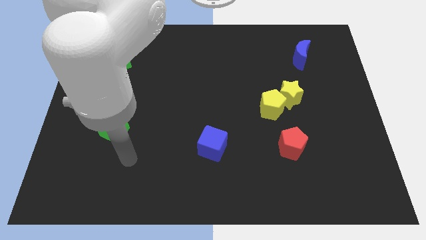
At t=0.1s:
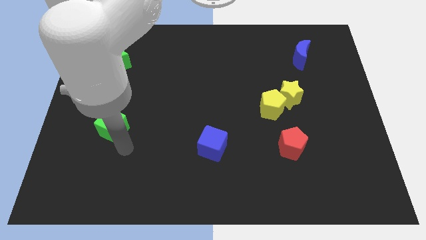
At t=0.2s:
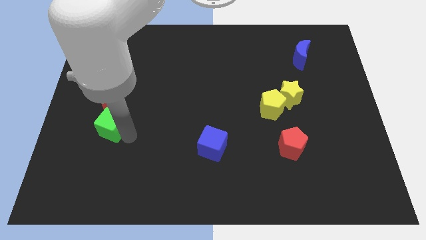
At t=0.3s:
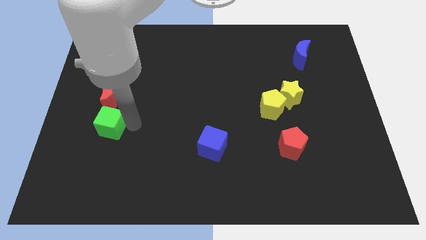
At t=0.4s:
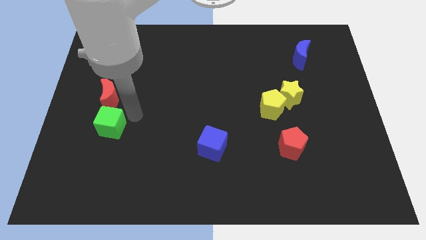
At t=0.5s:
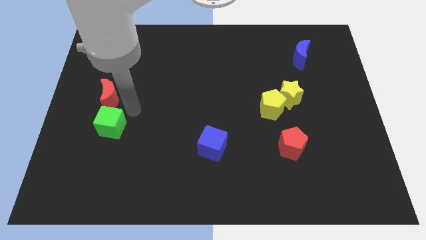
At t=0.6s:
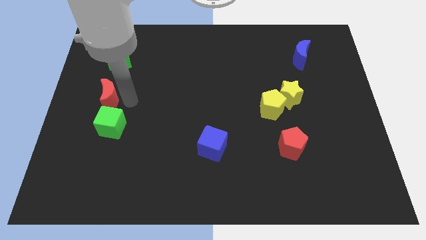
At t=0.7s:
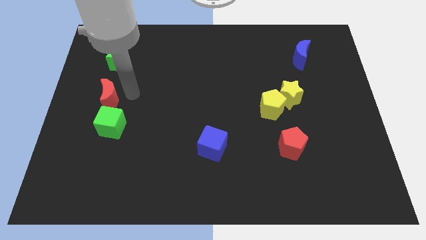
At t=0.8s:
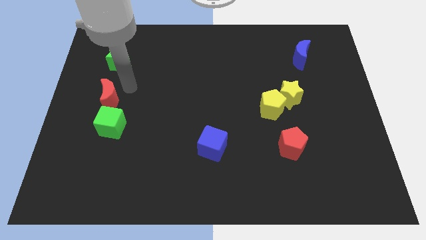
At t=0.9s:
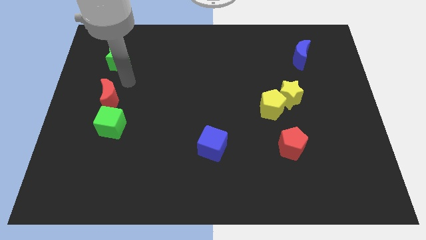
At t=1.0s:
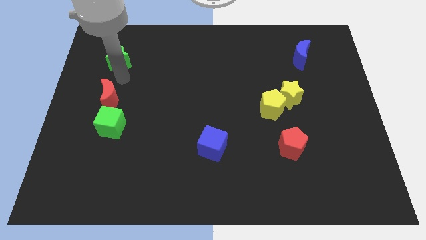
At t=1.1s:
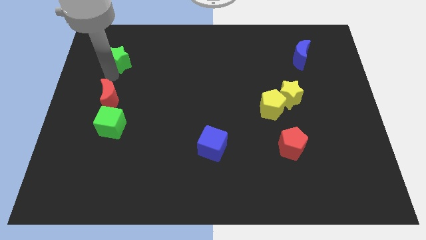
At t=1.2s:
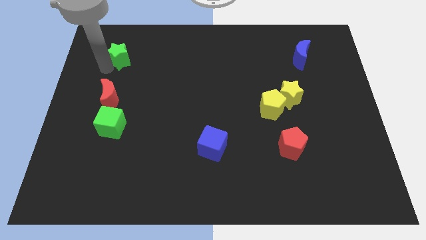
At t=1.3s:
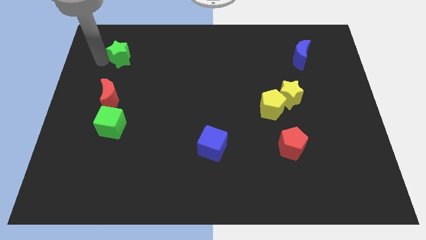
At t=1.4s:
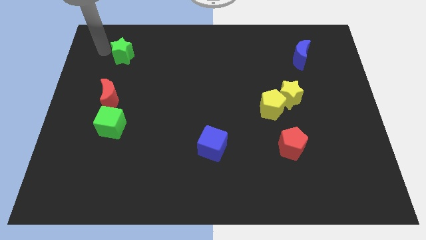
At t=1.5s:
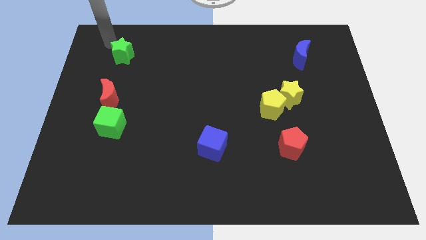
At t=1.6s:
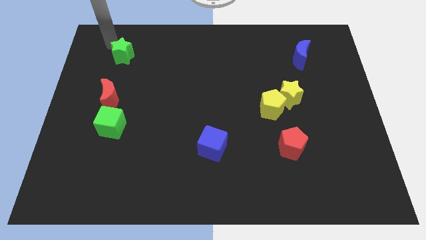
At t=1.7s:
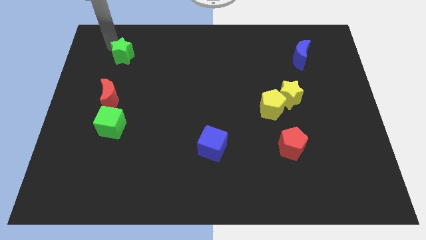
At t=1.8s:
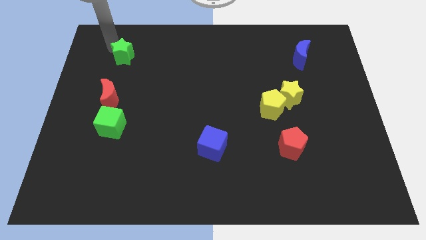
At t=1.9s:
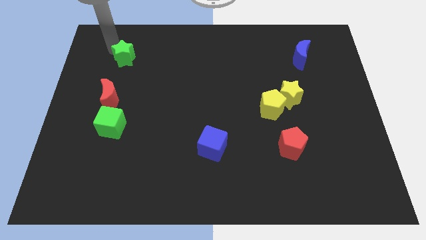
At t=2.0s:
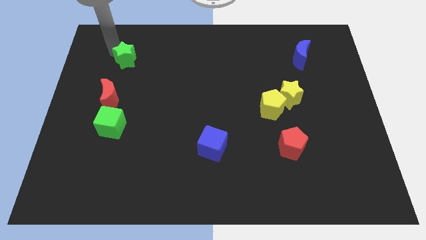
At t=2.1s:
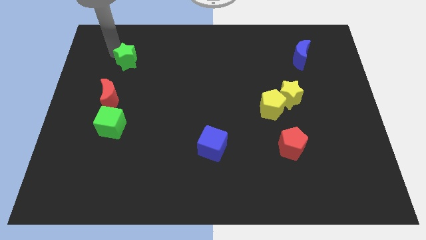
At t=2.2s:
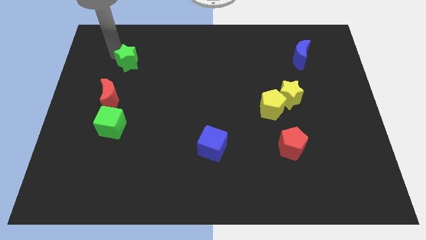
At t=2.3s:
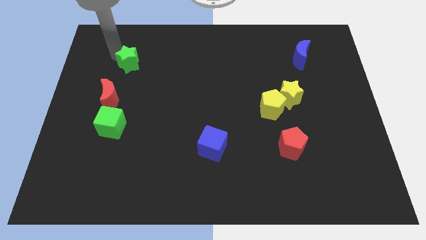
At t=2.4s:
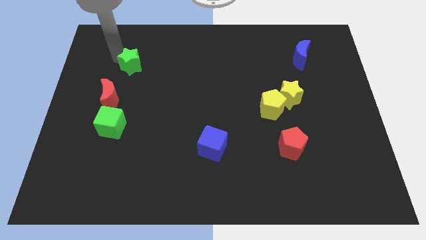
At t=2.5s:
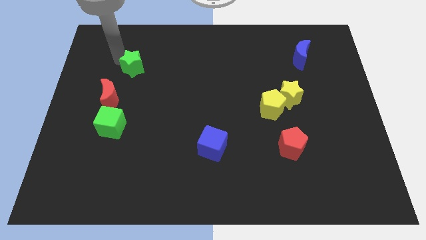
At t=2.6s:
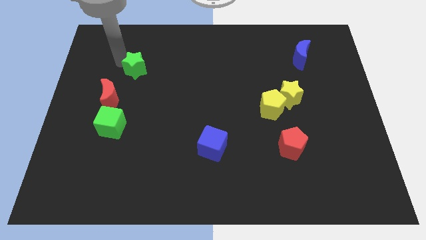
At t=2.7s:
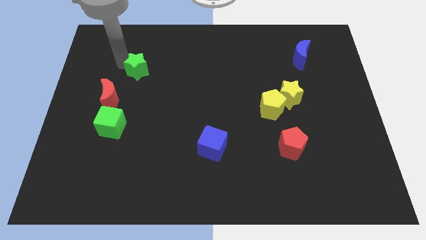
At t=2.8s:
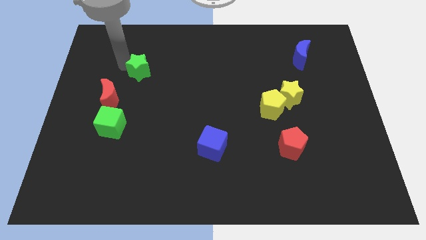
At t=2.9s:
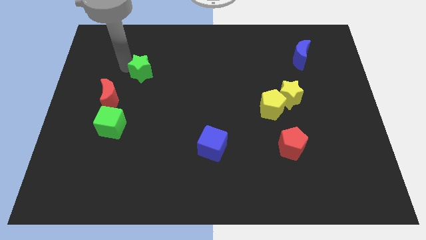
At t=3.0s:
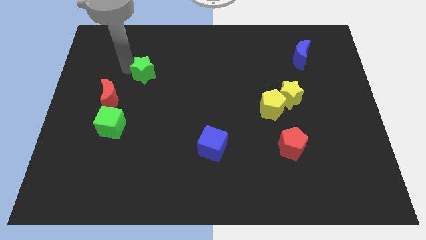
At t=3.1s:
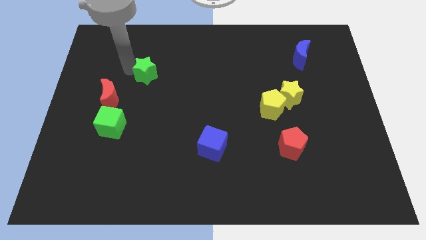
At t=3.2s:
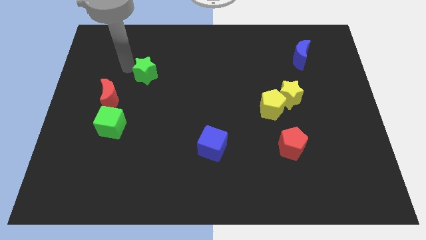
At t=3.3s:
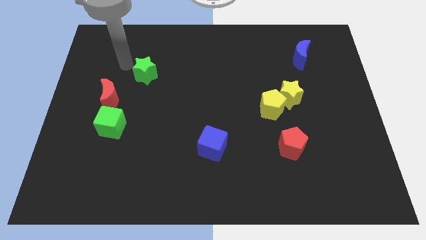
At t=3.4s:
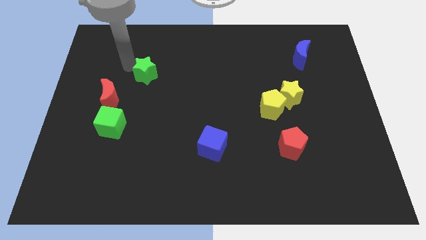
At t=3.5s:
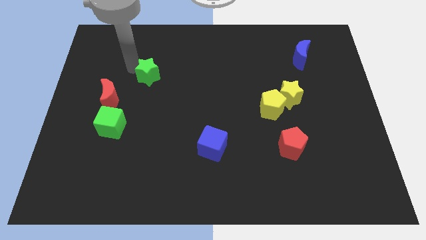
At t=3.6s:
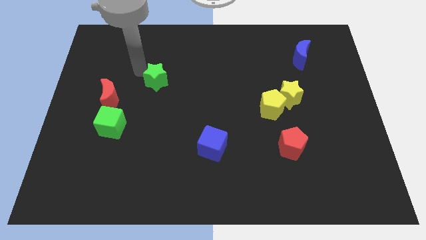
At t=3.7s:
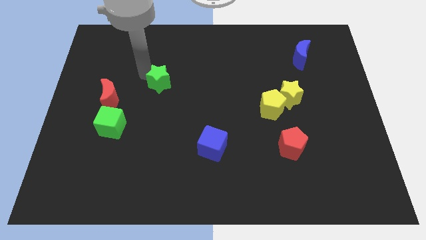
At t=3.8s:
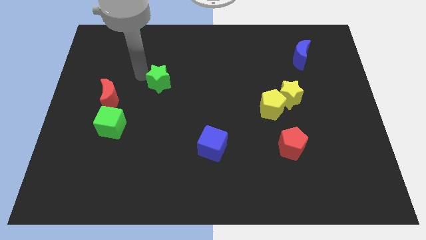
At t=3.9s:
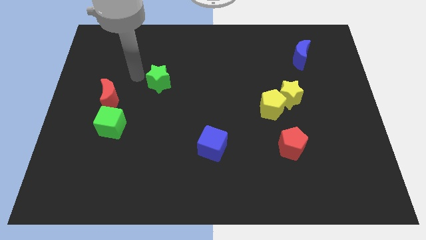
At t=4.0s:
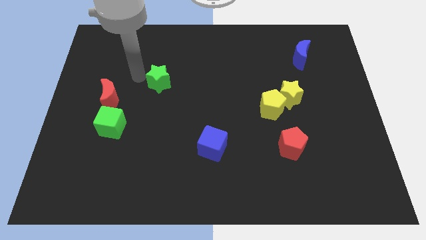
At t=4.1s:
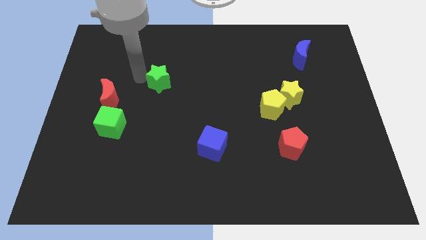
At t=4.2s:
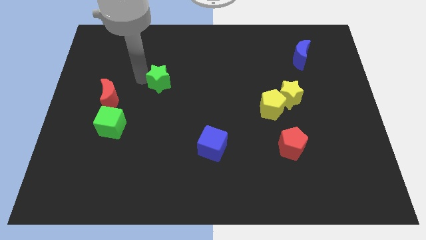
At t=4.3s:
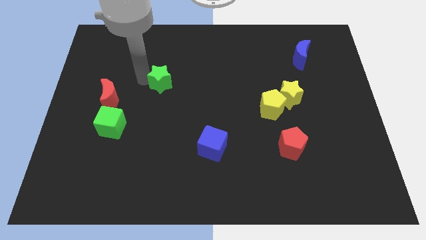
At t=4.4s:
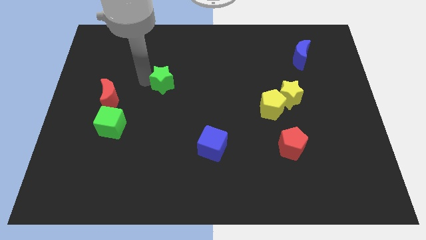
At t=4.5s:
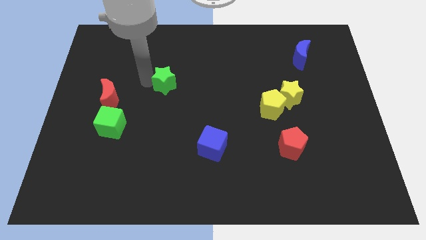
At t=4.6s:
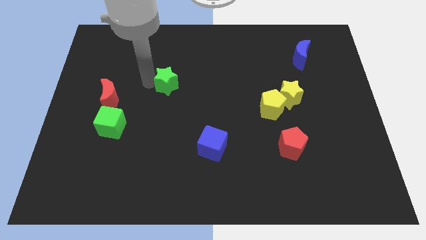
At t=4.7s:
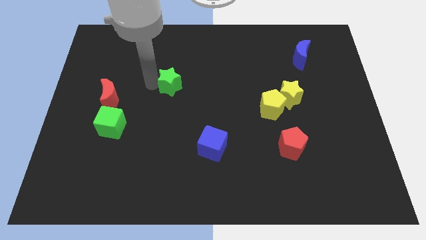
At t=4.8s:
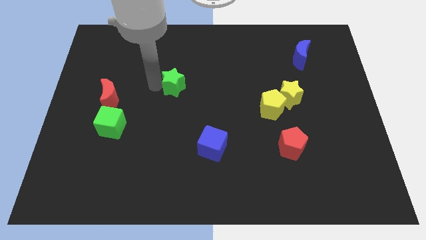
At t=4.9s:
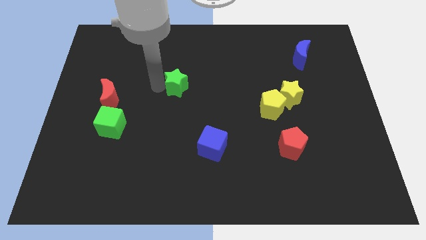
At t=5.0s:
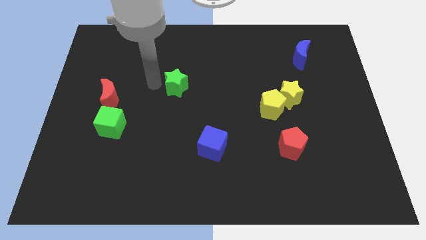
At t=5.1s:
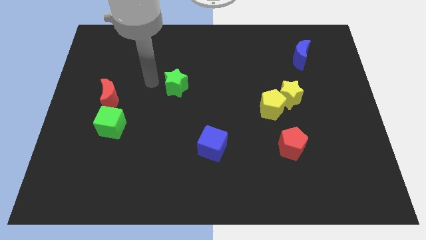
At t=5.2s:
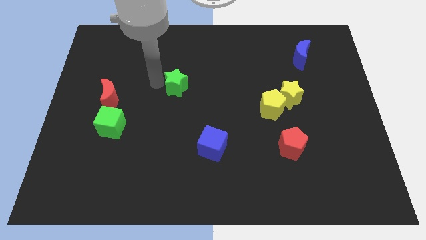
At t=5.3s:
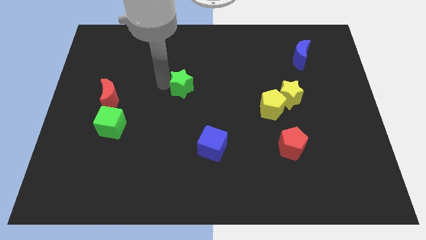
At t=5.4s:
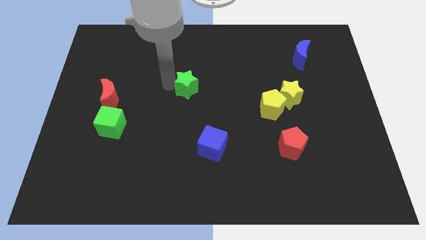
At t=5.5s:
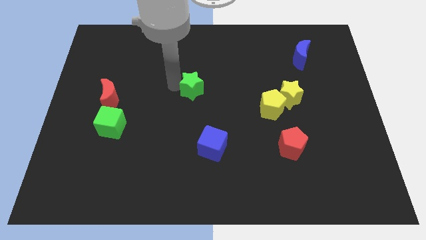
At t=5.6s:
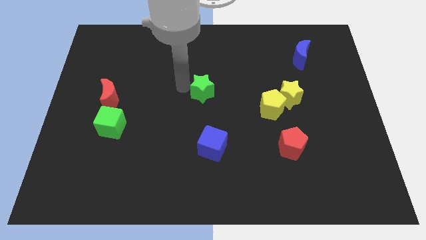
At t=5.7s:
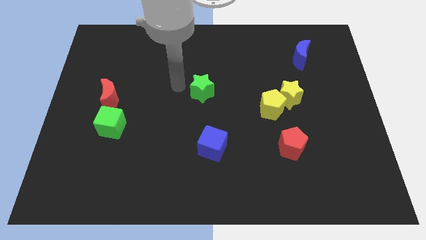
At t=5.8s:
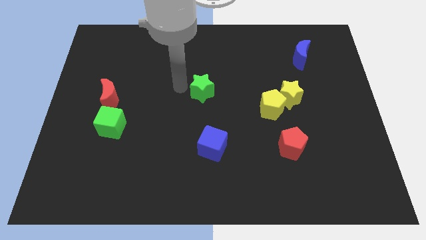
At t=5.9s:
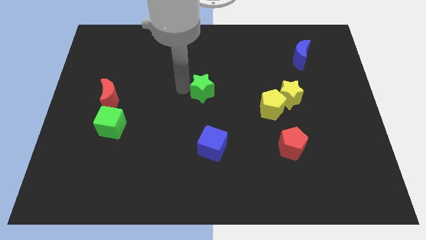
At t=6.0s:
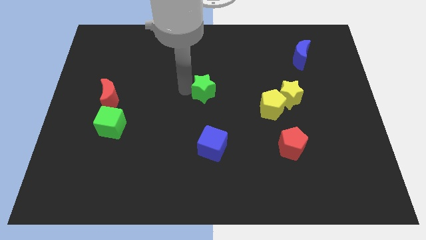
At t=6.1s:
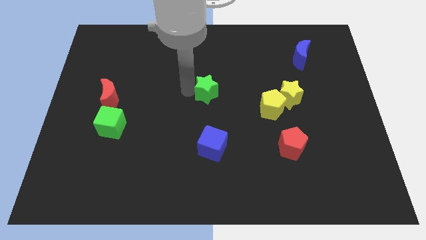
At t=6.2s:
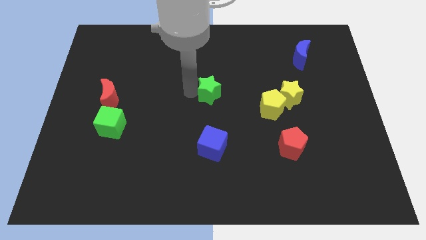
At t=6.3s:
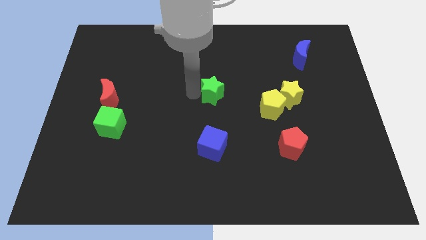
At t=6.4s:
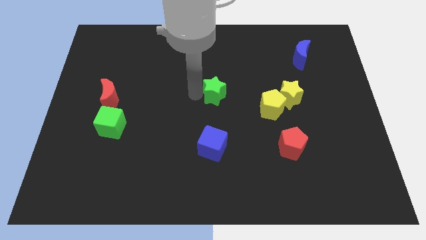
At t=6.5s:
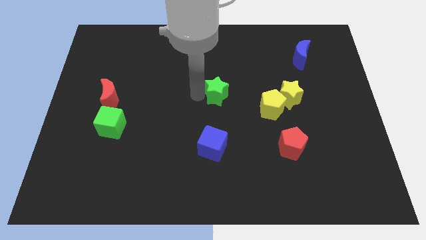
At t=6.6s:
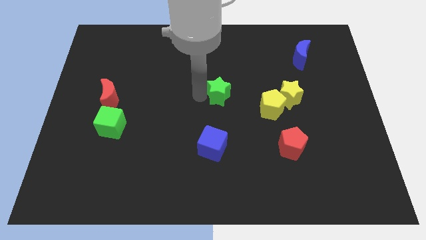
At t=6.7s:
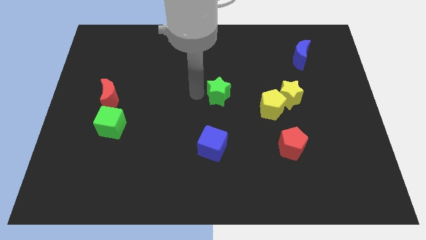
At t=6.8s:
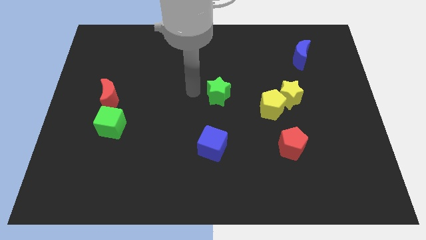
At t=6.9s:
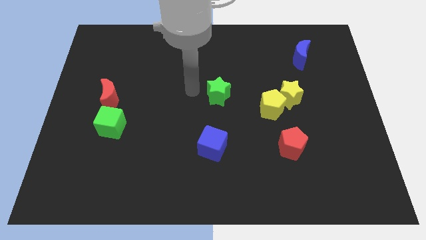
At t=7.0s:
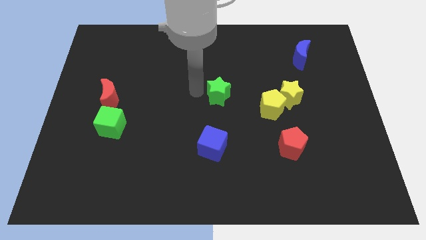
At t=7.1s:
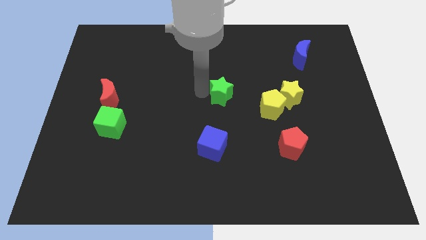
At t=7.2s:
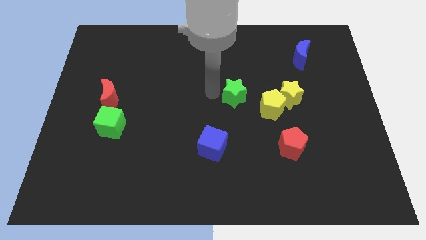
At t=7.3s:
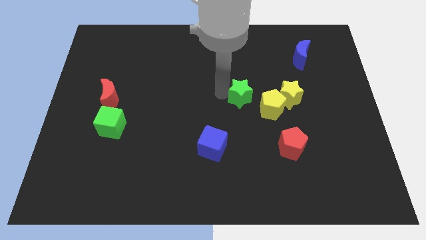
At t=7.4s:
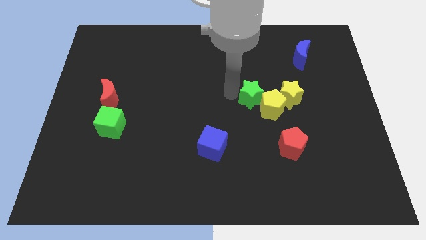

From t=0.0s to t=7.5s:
slide the green star to the yellow pentagon
